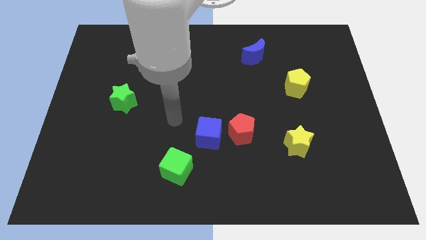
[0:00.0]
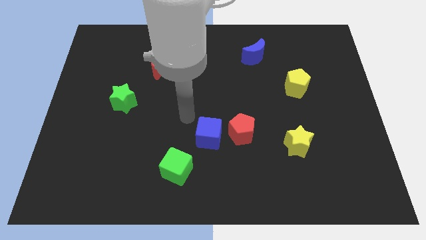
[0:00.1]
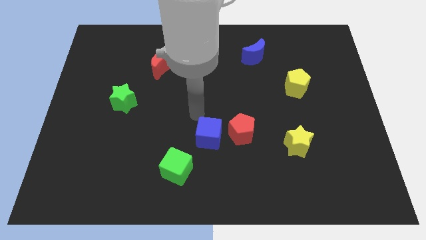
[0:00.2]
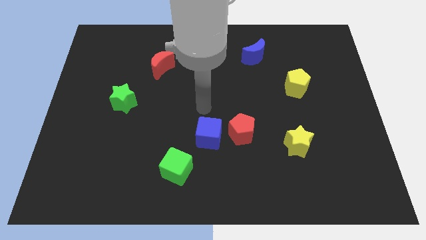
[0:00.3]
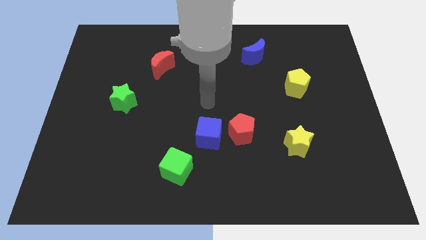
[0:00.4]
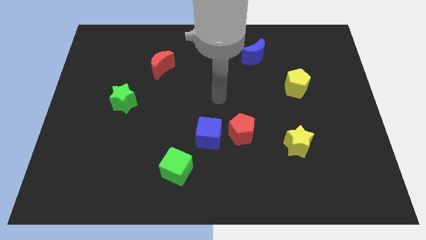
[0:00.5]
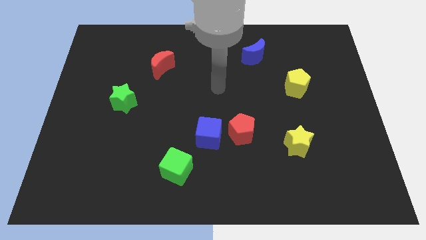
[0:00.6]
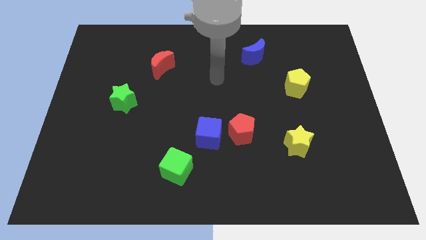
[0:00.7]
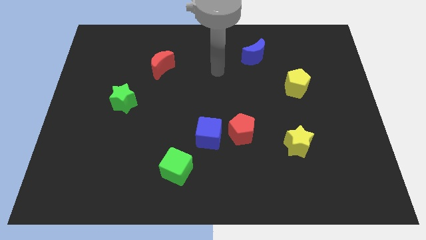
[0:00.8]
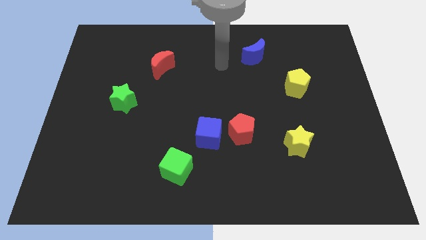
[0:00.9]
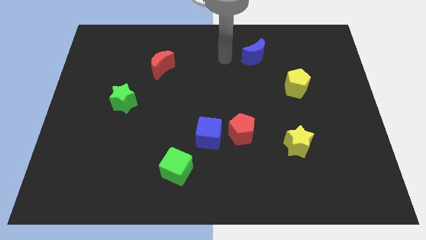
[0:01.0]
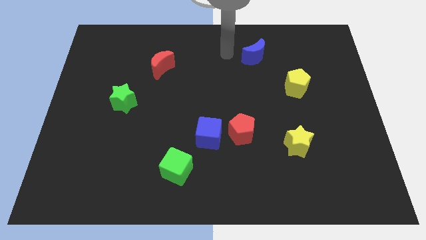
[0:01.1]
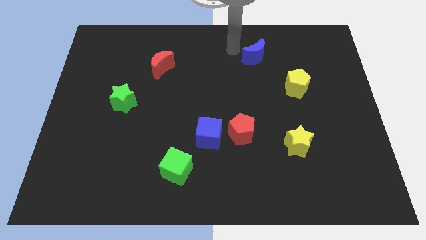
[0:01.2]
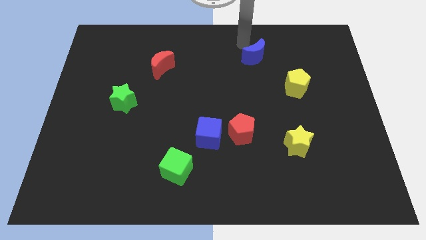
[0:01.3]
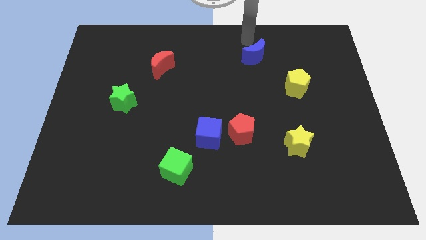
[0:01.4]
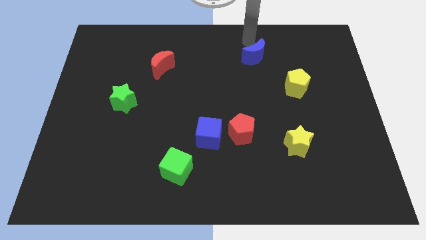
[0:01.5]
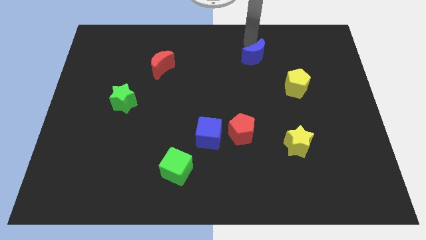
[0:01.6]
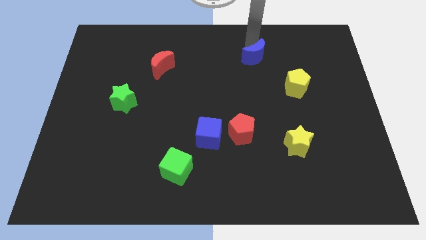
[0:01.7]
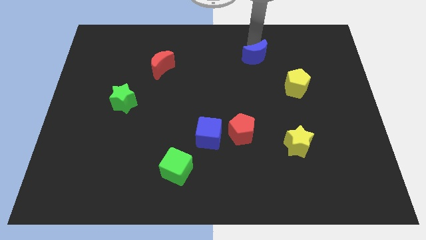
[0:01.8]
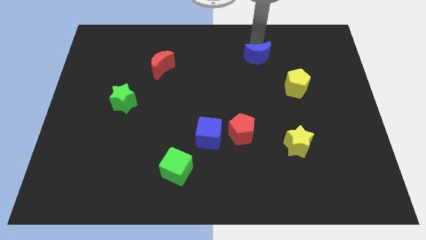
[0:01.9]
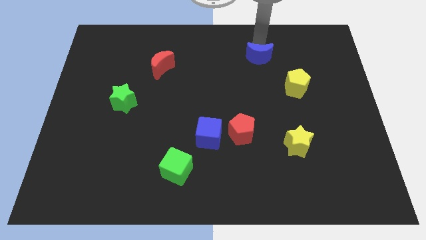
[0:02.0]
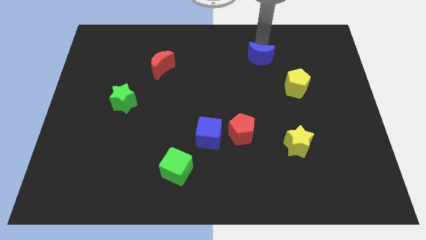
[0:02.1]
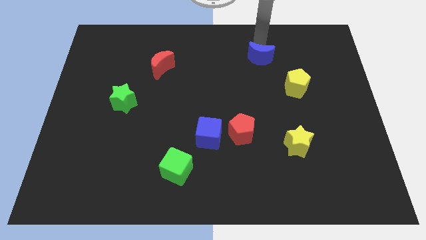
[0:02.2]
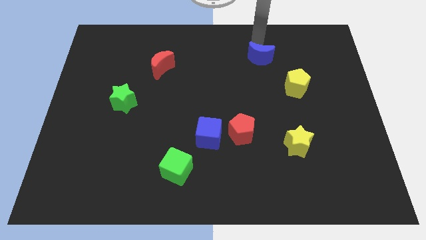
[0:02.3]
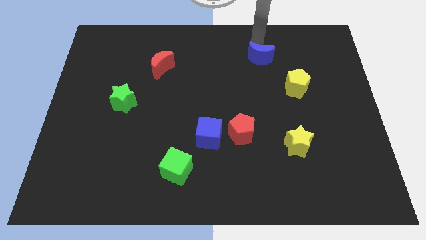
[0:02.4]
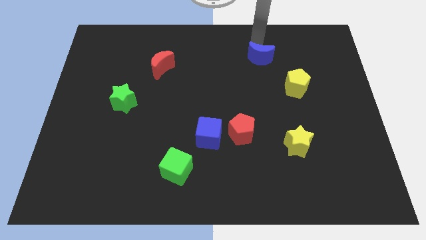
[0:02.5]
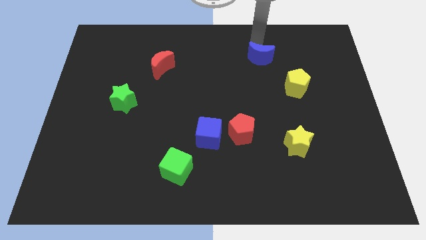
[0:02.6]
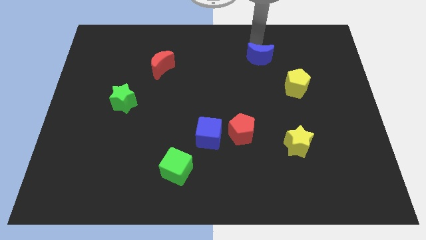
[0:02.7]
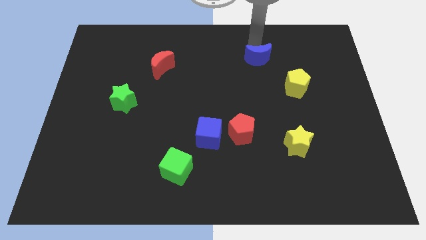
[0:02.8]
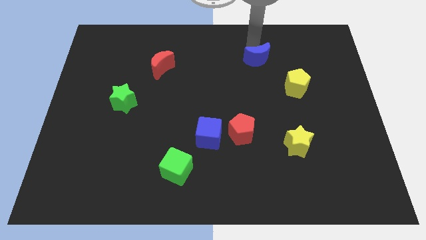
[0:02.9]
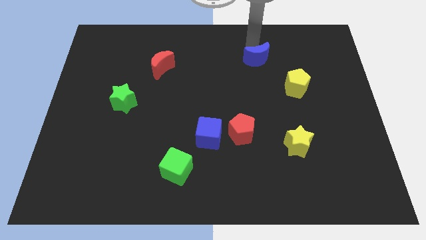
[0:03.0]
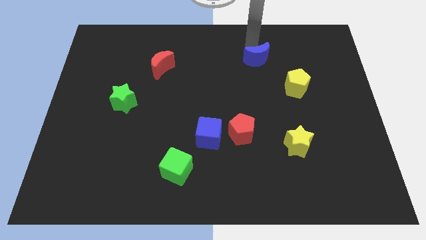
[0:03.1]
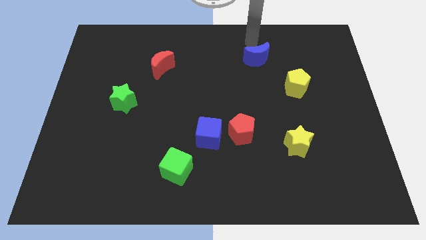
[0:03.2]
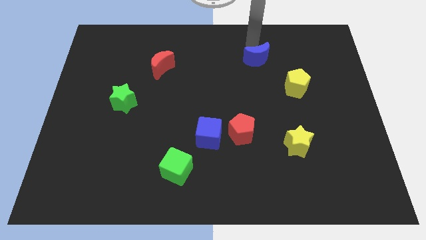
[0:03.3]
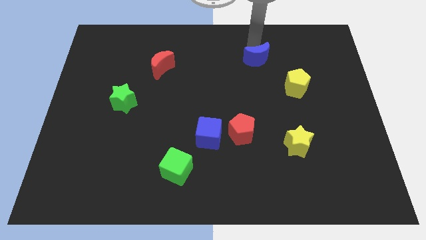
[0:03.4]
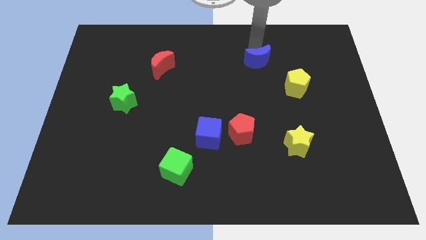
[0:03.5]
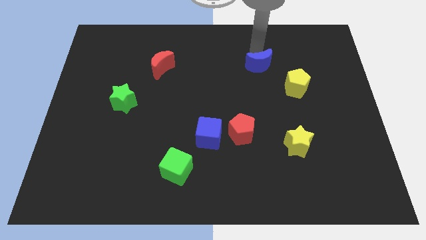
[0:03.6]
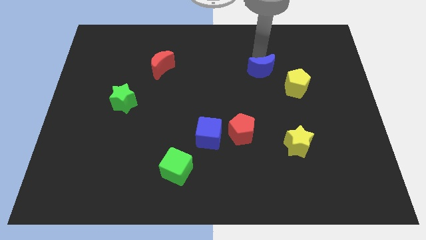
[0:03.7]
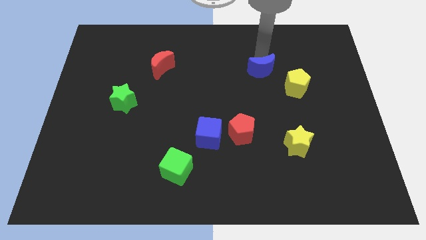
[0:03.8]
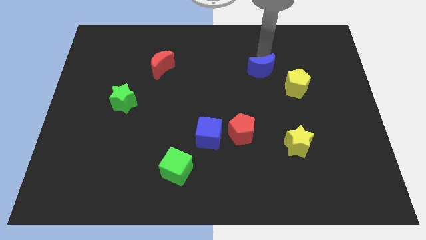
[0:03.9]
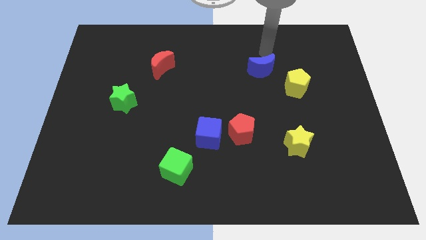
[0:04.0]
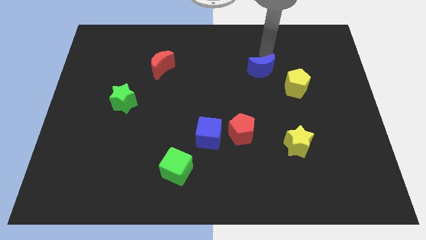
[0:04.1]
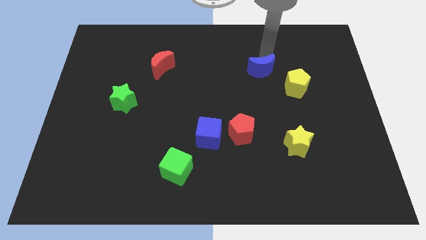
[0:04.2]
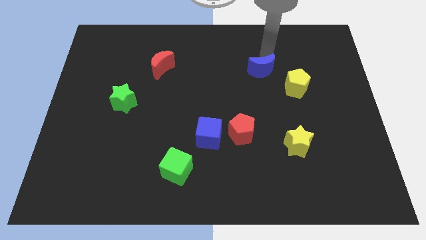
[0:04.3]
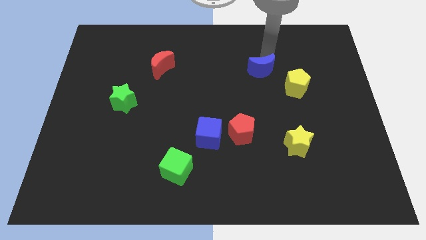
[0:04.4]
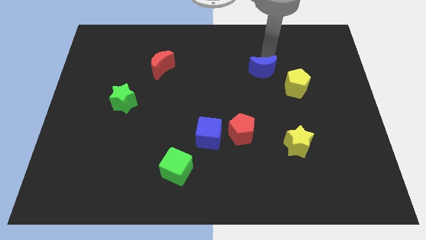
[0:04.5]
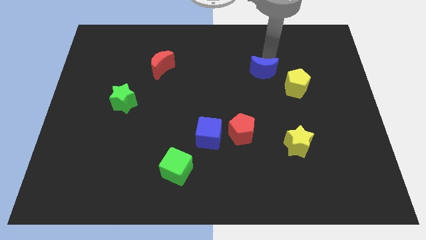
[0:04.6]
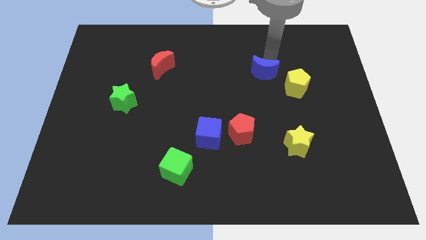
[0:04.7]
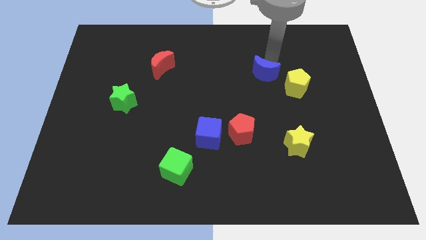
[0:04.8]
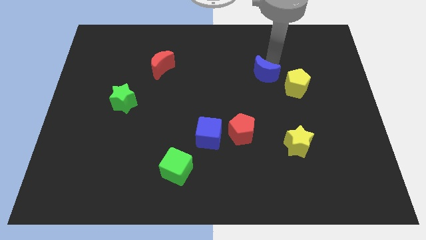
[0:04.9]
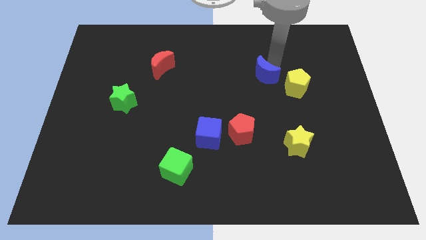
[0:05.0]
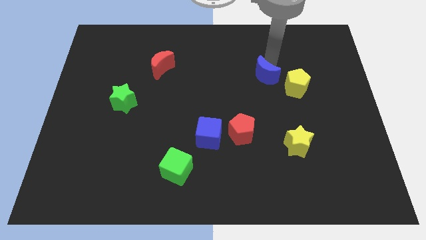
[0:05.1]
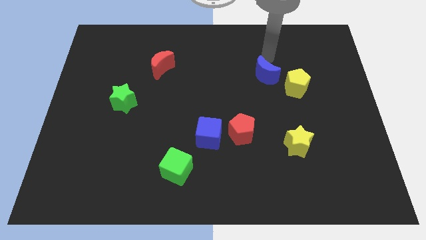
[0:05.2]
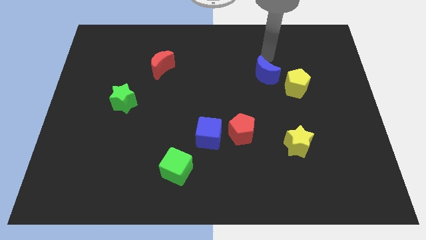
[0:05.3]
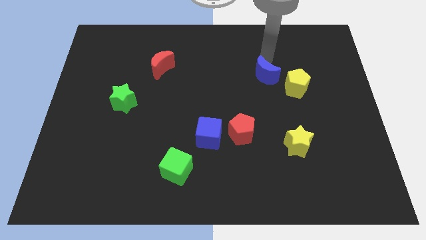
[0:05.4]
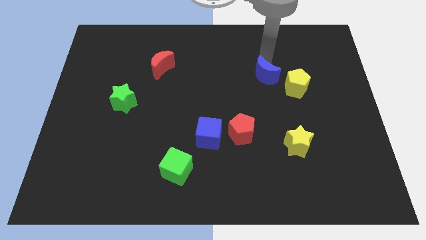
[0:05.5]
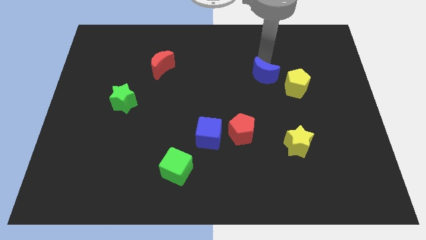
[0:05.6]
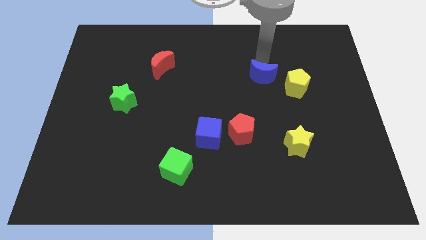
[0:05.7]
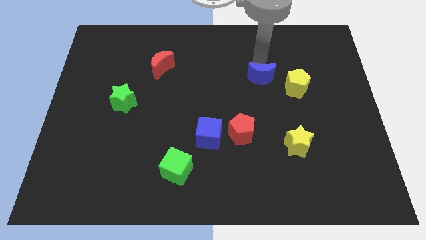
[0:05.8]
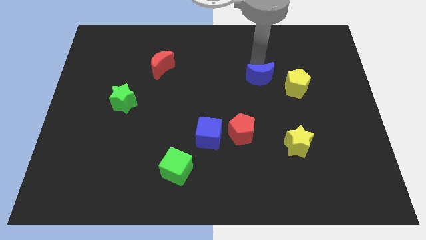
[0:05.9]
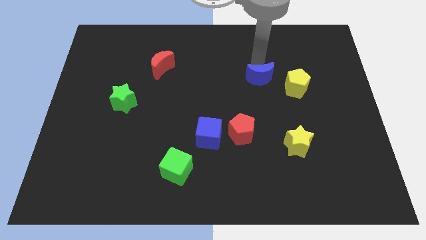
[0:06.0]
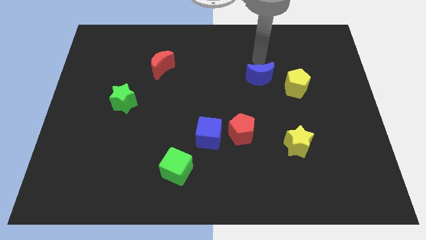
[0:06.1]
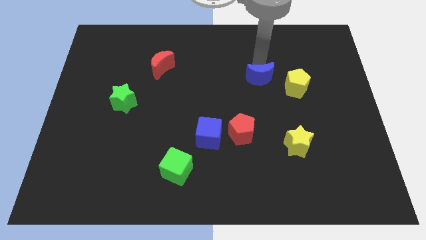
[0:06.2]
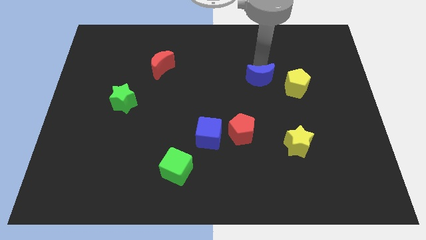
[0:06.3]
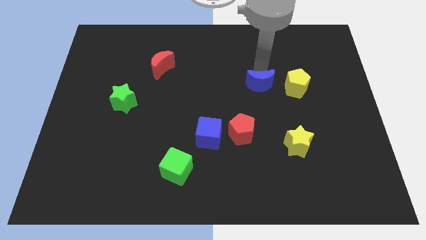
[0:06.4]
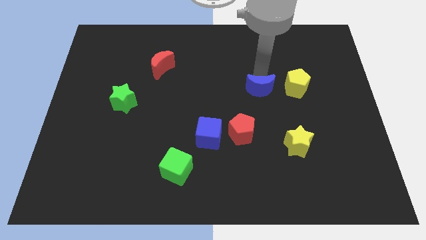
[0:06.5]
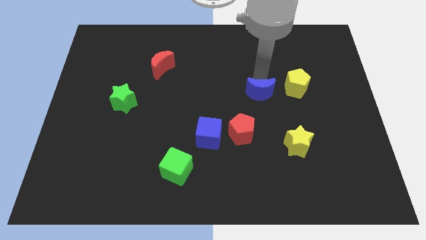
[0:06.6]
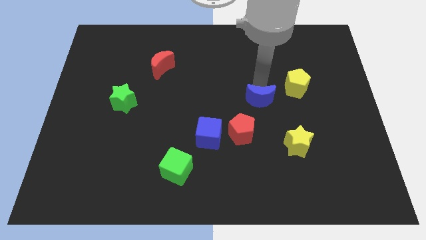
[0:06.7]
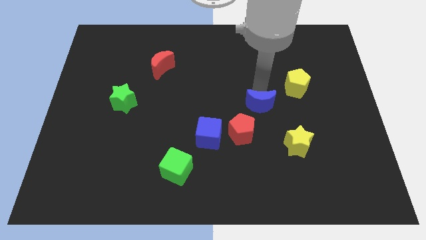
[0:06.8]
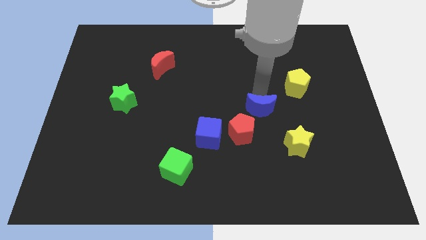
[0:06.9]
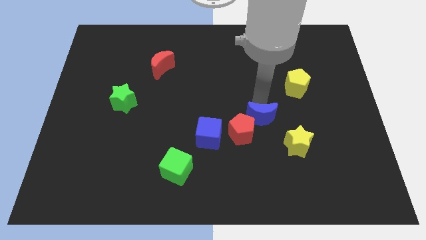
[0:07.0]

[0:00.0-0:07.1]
slide the blue moon downwards

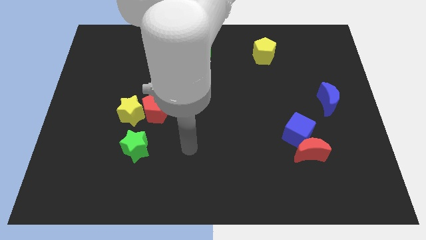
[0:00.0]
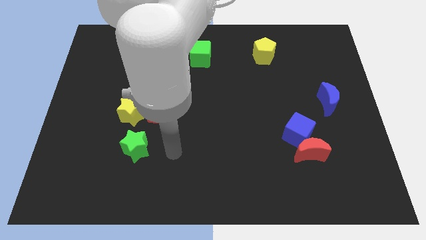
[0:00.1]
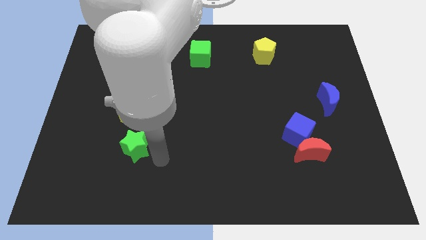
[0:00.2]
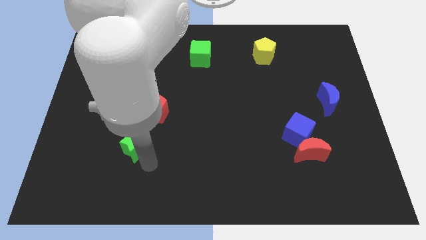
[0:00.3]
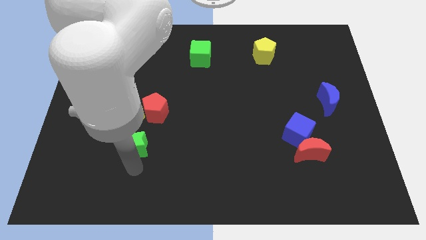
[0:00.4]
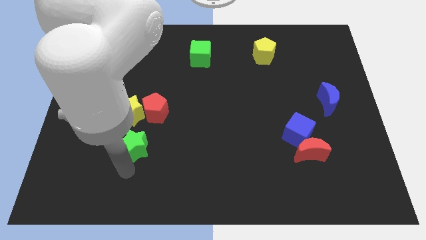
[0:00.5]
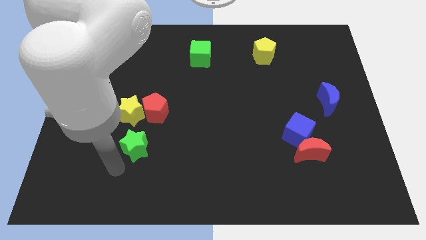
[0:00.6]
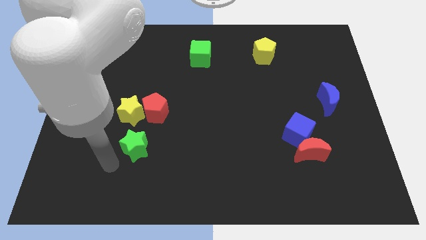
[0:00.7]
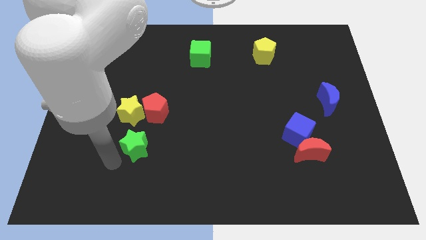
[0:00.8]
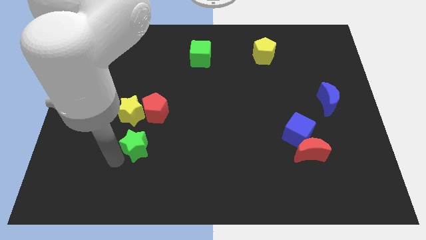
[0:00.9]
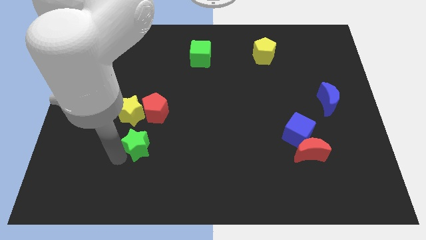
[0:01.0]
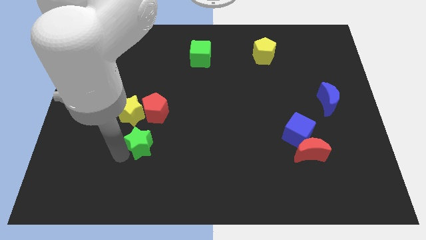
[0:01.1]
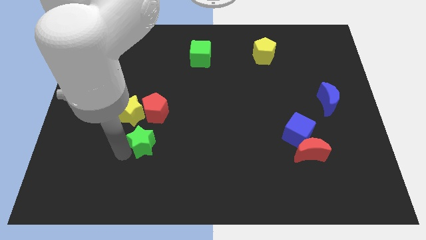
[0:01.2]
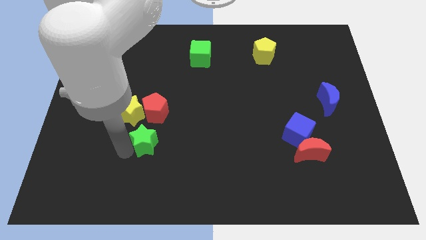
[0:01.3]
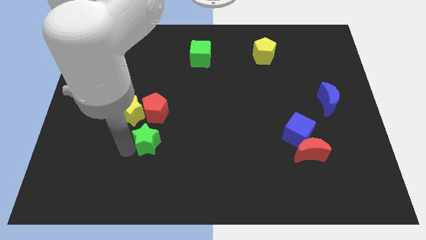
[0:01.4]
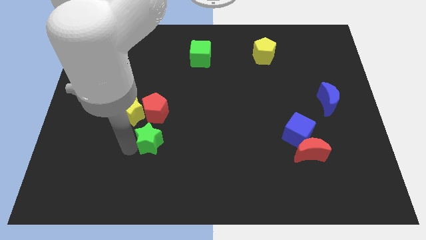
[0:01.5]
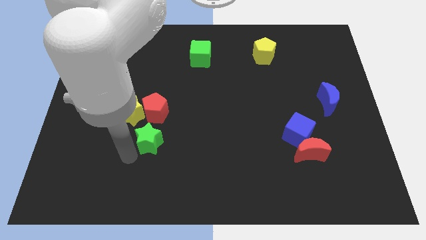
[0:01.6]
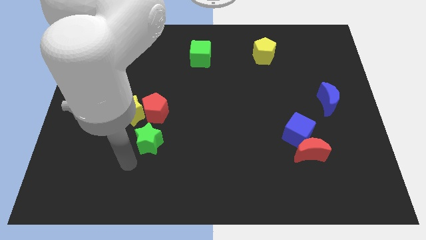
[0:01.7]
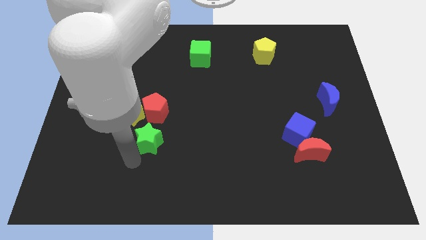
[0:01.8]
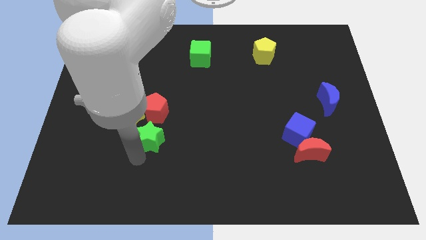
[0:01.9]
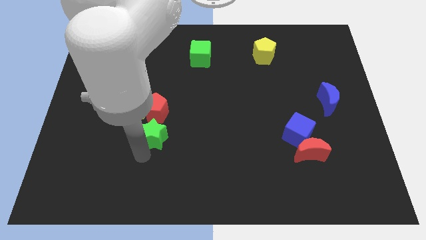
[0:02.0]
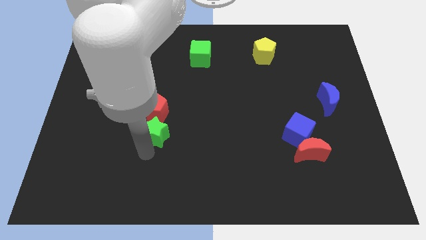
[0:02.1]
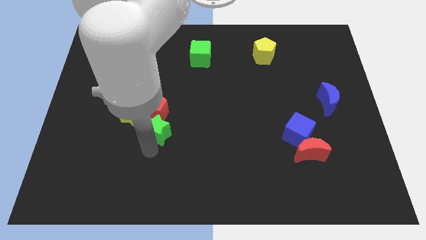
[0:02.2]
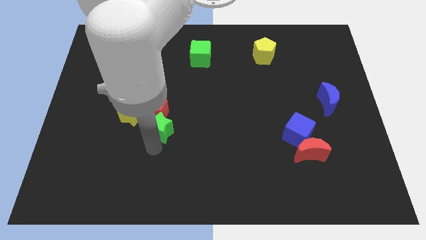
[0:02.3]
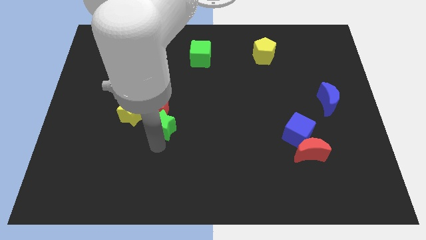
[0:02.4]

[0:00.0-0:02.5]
slide the green star somewhat upwards and to the right
